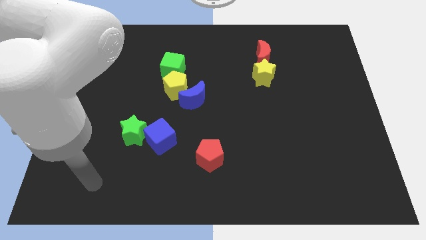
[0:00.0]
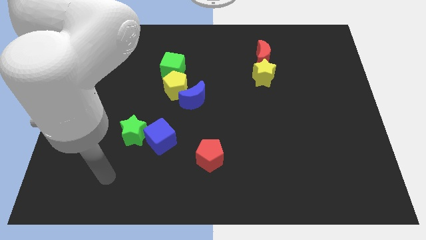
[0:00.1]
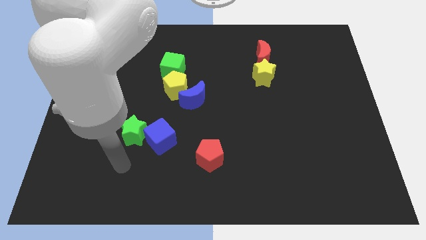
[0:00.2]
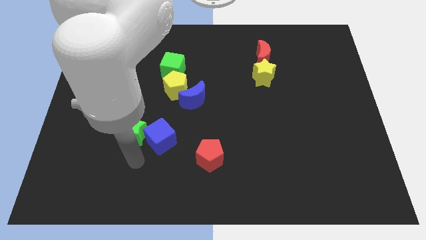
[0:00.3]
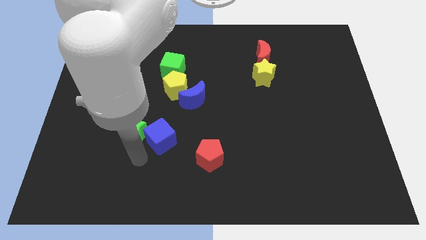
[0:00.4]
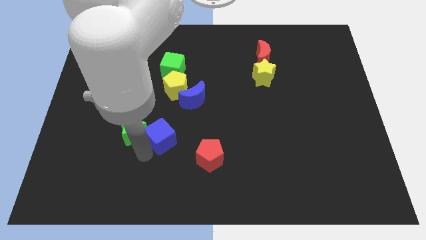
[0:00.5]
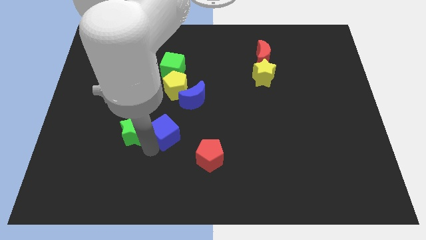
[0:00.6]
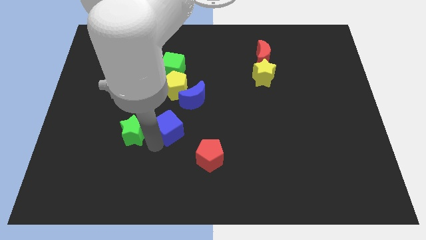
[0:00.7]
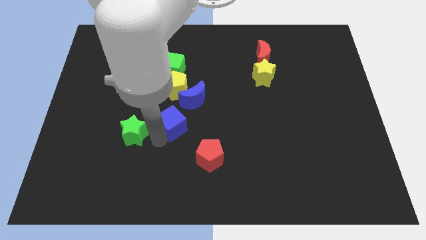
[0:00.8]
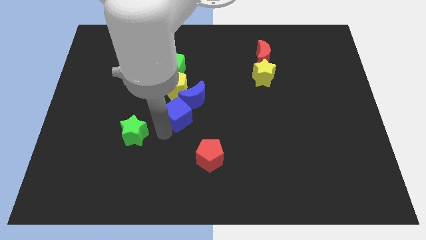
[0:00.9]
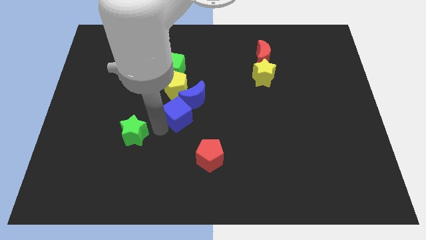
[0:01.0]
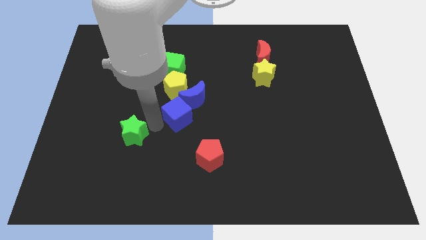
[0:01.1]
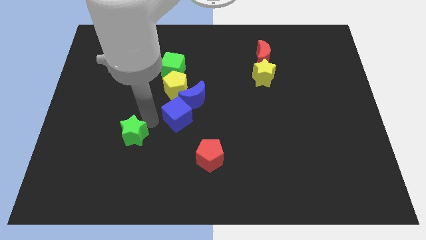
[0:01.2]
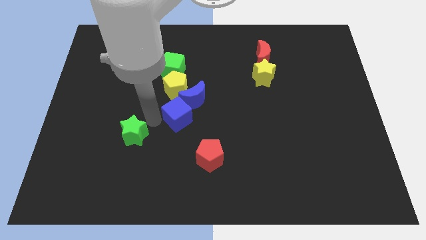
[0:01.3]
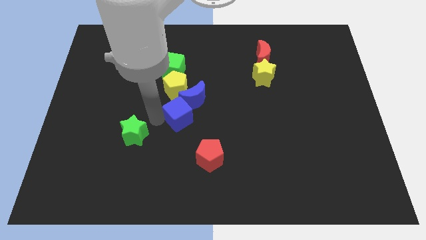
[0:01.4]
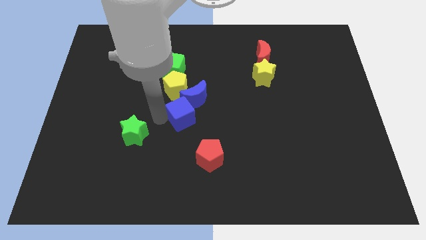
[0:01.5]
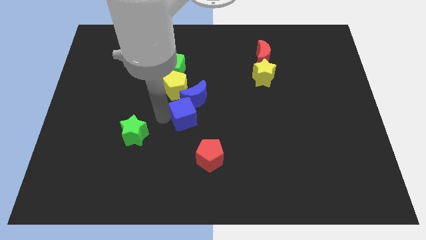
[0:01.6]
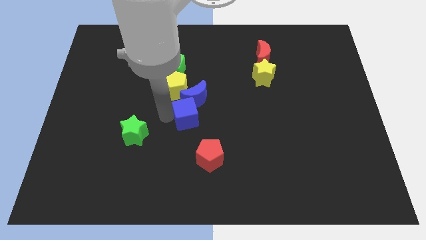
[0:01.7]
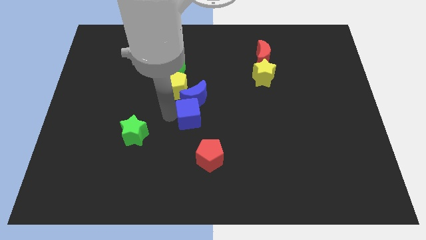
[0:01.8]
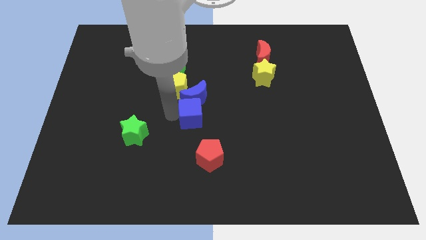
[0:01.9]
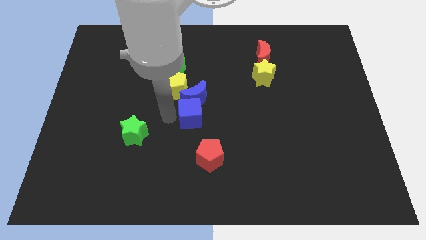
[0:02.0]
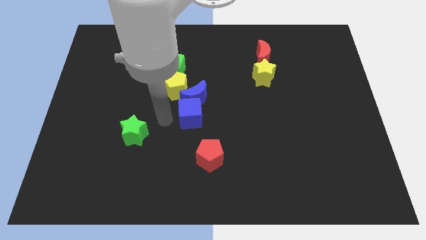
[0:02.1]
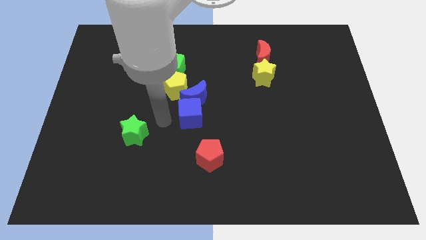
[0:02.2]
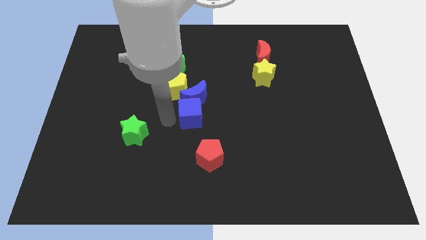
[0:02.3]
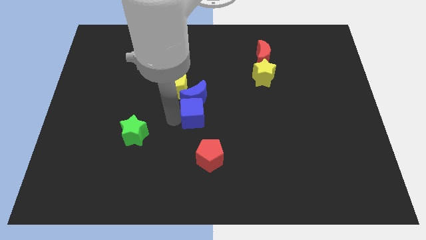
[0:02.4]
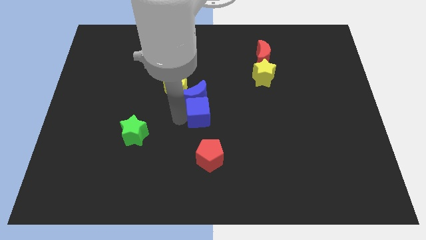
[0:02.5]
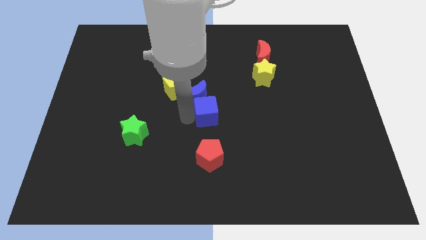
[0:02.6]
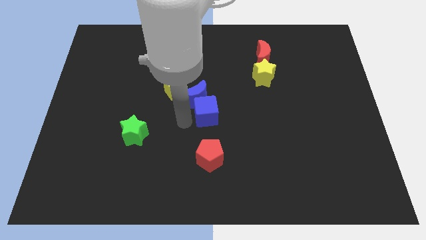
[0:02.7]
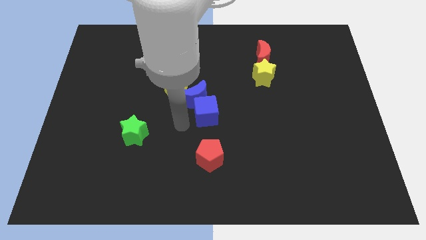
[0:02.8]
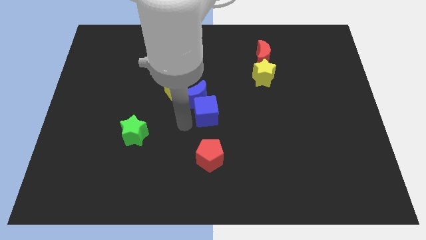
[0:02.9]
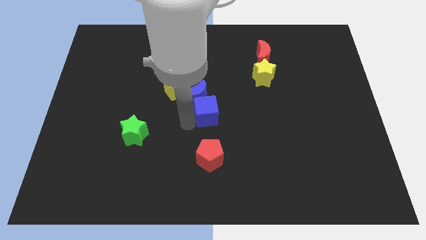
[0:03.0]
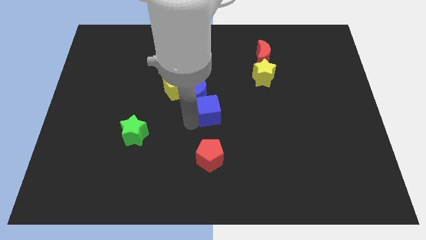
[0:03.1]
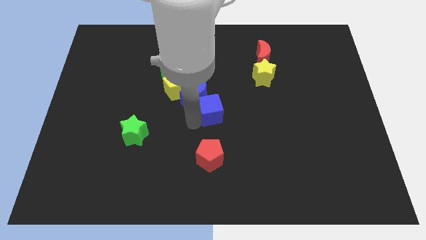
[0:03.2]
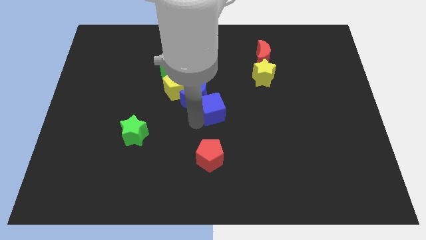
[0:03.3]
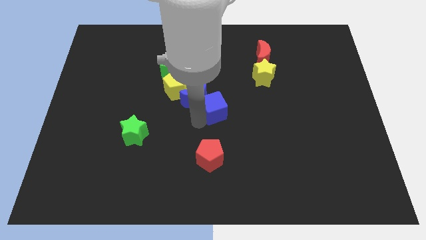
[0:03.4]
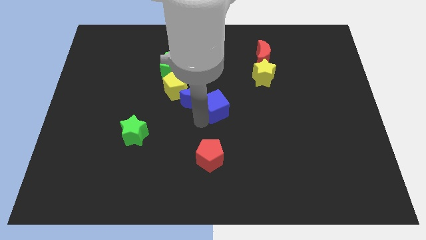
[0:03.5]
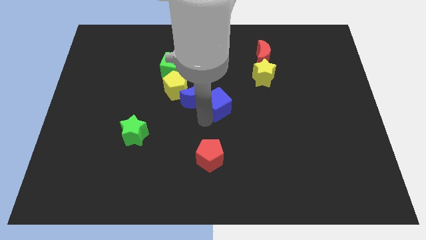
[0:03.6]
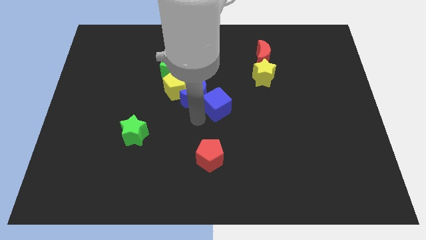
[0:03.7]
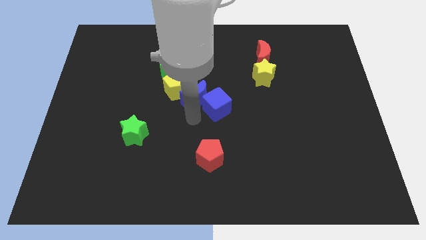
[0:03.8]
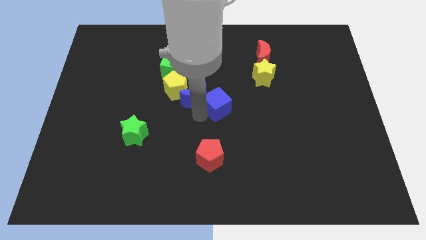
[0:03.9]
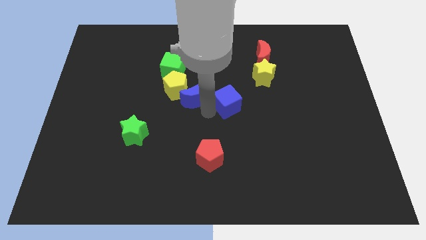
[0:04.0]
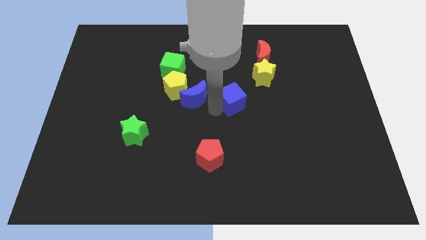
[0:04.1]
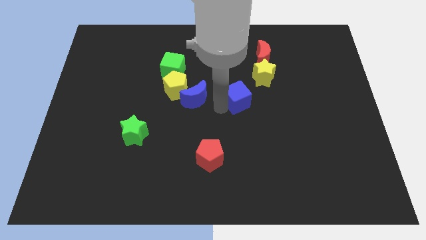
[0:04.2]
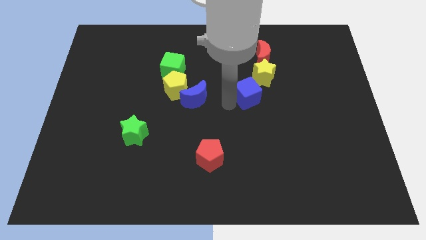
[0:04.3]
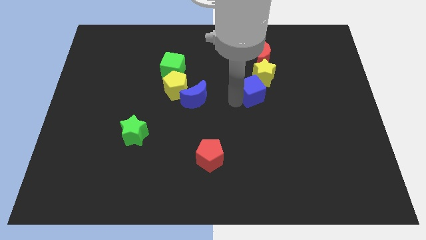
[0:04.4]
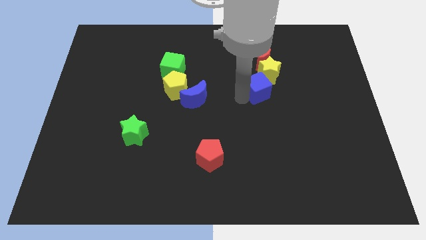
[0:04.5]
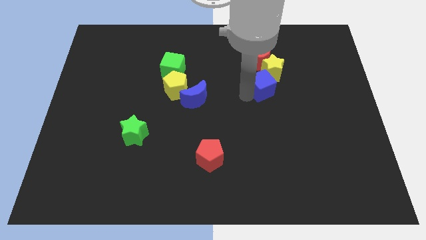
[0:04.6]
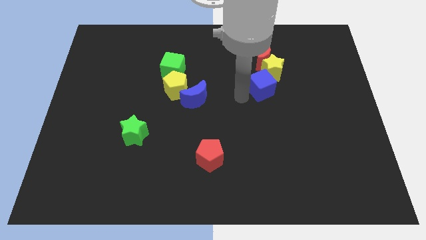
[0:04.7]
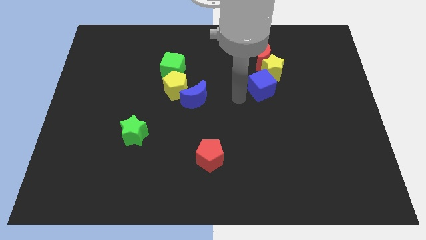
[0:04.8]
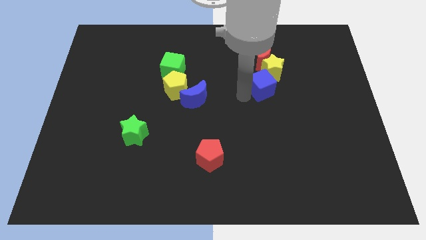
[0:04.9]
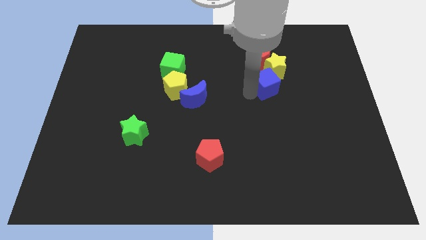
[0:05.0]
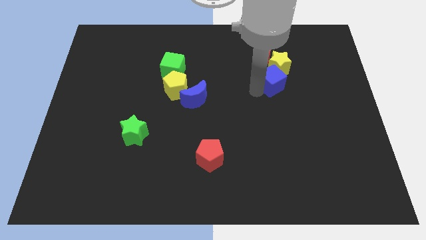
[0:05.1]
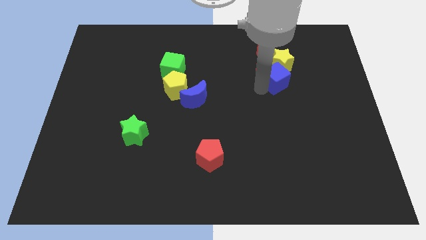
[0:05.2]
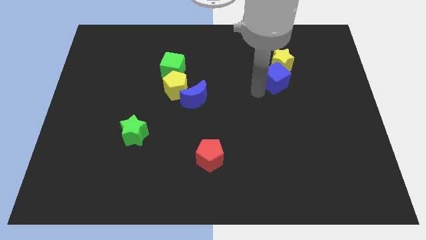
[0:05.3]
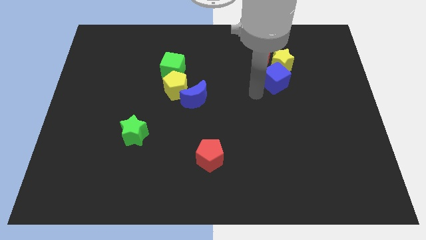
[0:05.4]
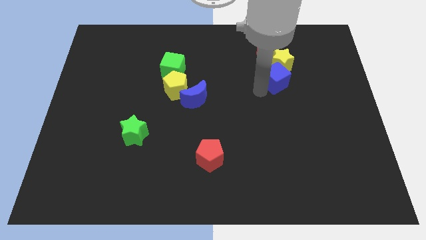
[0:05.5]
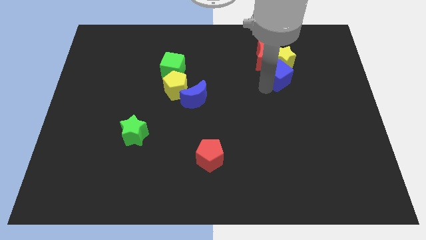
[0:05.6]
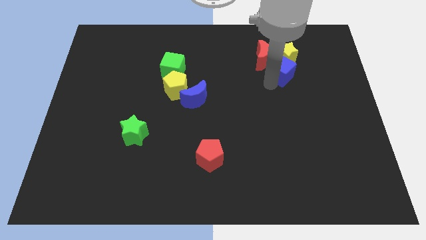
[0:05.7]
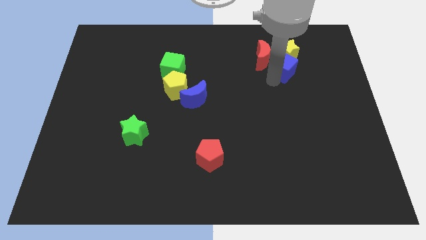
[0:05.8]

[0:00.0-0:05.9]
put the blue cube to the right of the red moon

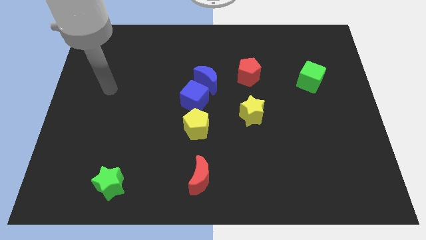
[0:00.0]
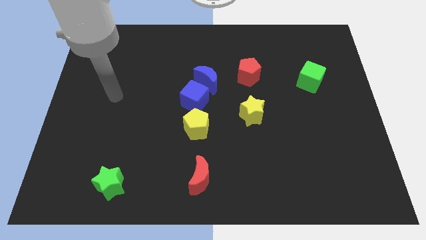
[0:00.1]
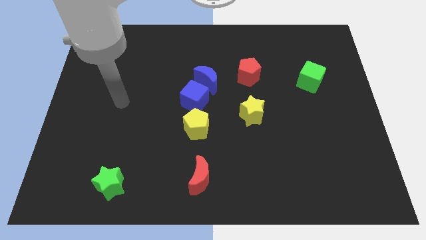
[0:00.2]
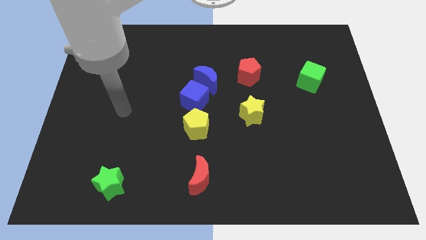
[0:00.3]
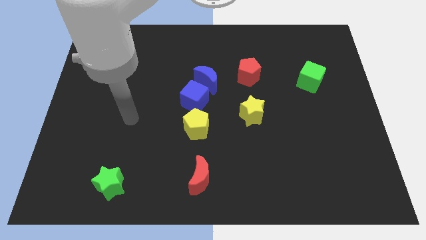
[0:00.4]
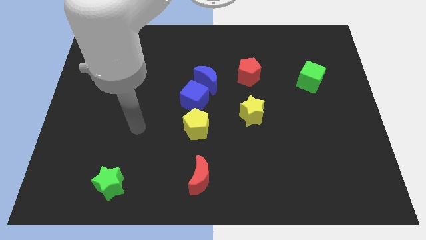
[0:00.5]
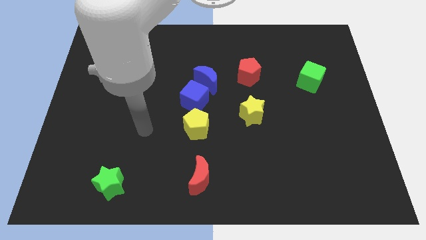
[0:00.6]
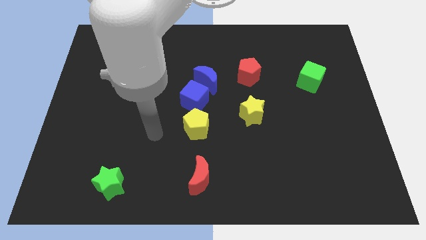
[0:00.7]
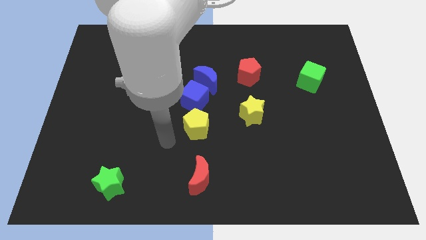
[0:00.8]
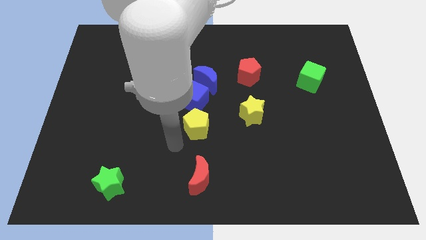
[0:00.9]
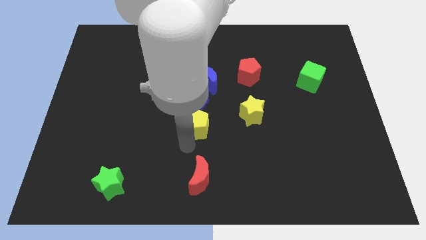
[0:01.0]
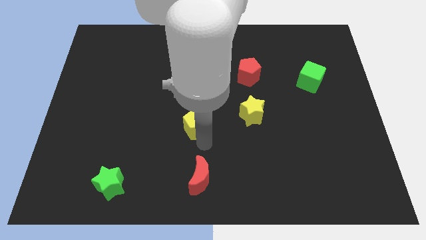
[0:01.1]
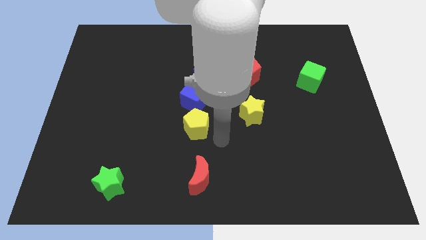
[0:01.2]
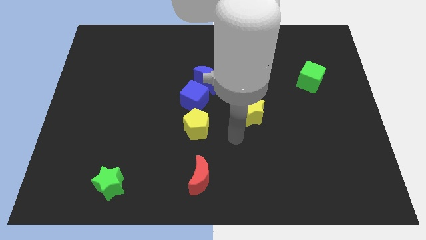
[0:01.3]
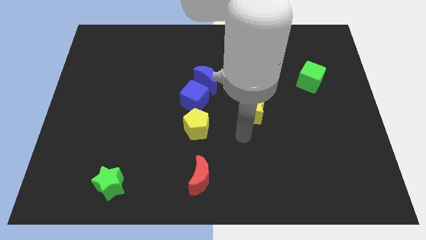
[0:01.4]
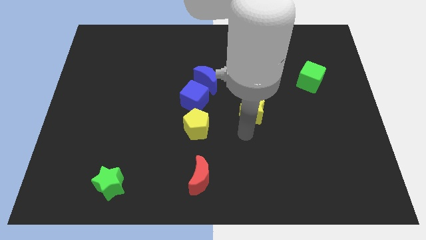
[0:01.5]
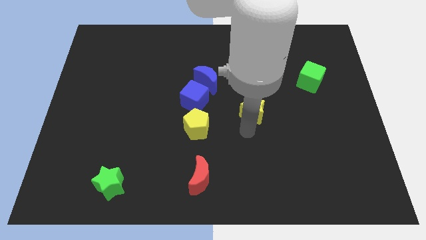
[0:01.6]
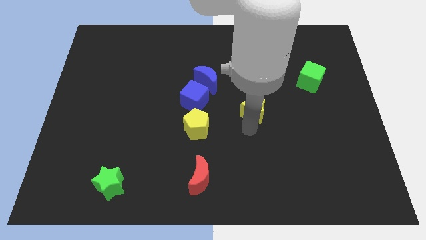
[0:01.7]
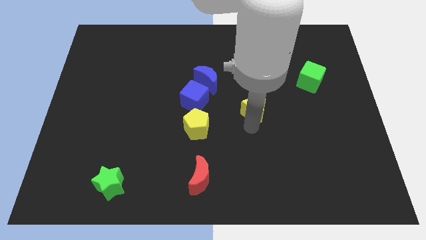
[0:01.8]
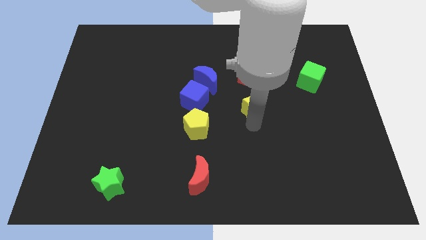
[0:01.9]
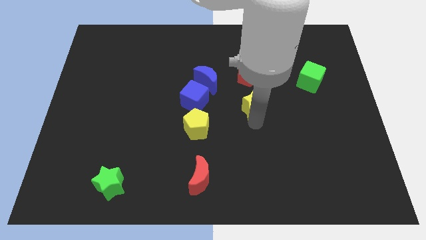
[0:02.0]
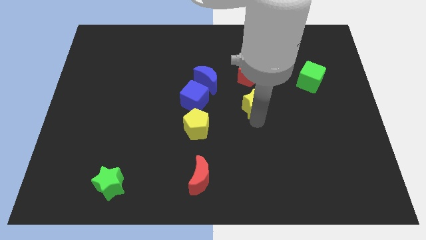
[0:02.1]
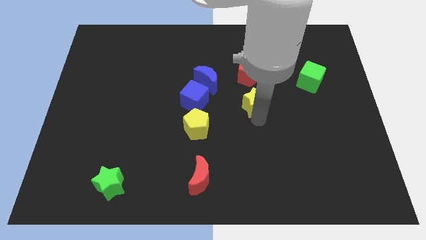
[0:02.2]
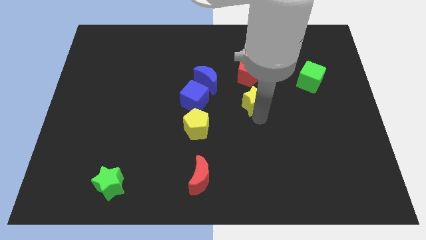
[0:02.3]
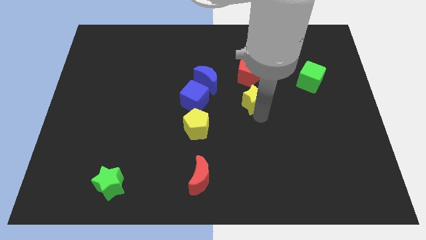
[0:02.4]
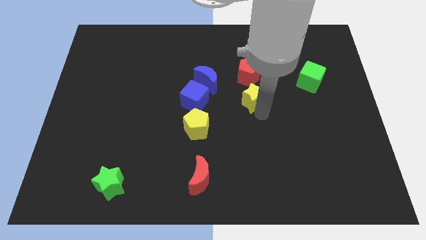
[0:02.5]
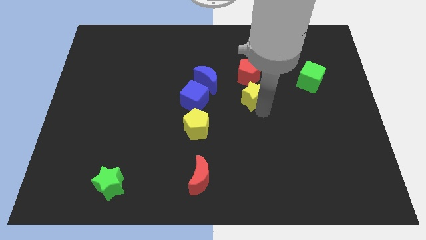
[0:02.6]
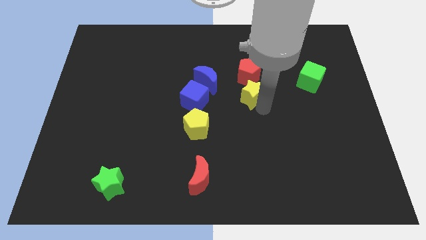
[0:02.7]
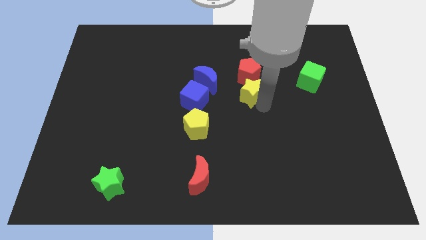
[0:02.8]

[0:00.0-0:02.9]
slide the yellow star to the right of the blue moon
